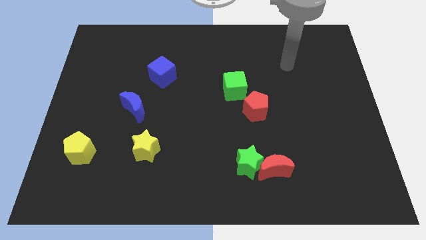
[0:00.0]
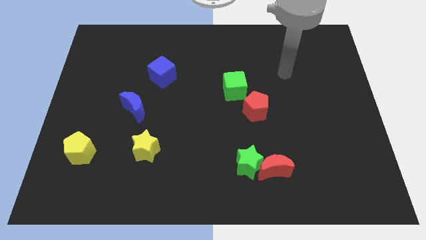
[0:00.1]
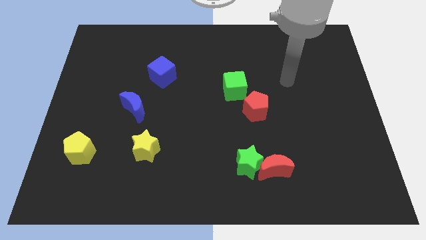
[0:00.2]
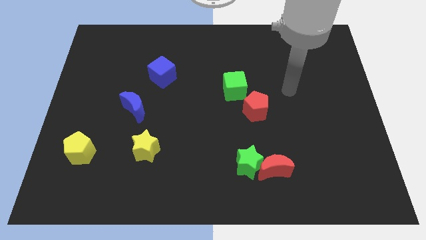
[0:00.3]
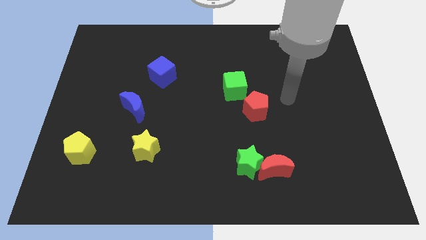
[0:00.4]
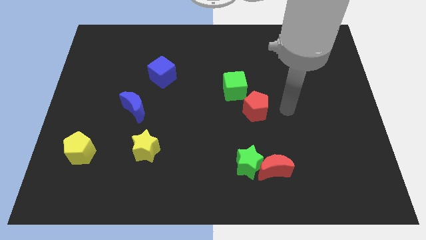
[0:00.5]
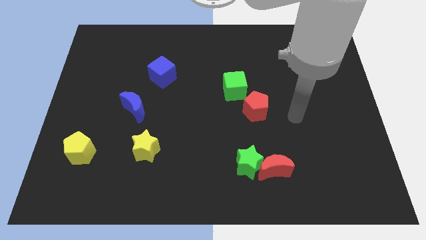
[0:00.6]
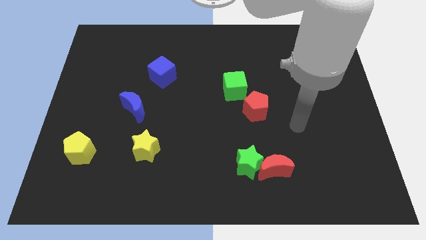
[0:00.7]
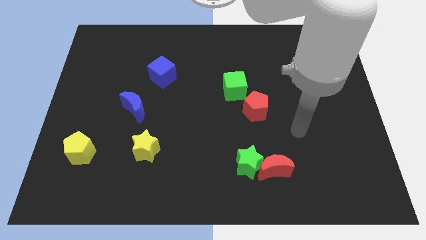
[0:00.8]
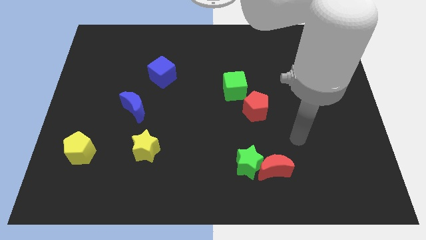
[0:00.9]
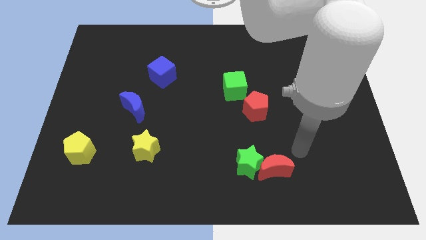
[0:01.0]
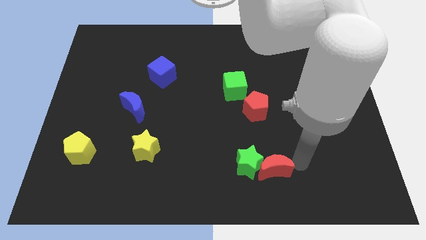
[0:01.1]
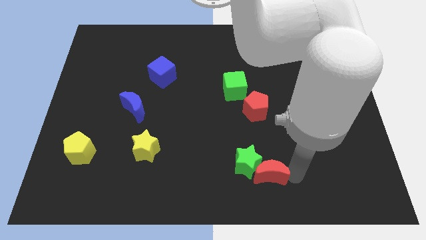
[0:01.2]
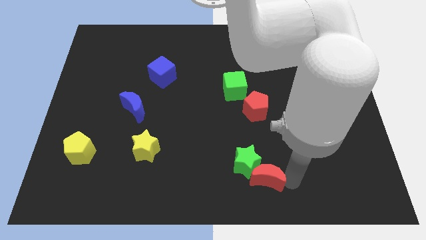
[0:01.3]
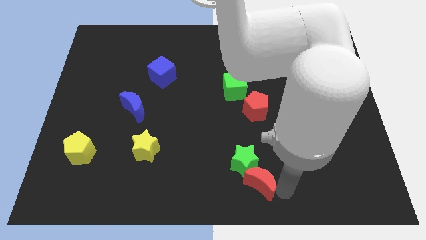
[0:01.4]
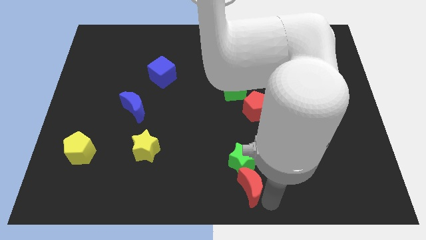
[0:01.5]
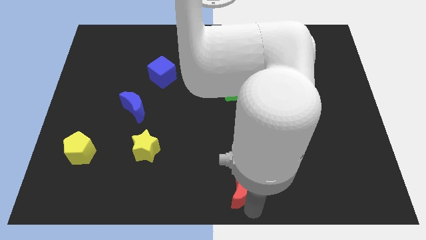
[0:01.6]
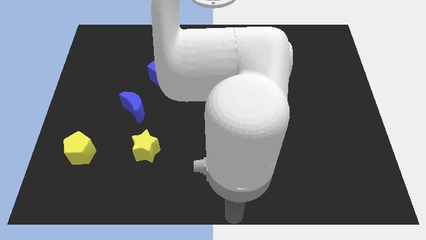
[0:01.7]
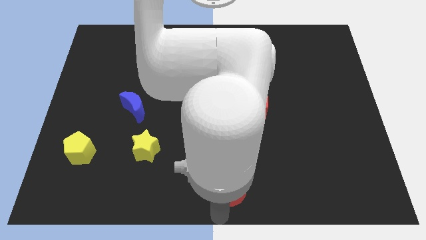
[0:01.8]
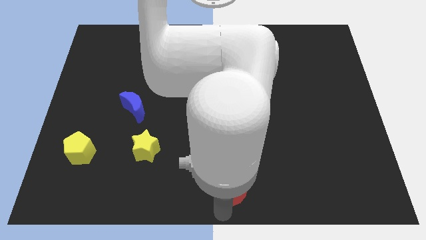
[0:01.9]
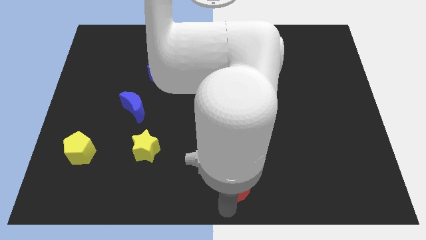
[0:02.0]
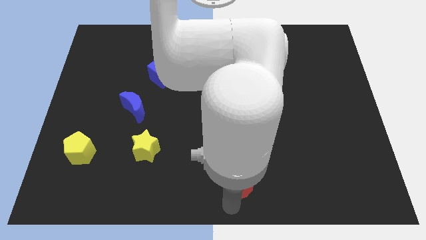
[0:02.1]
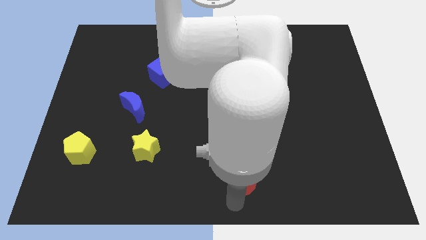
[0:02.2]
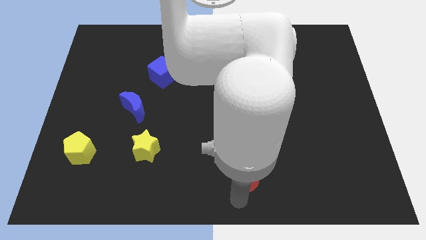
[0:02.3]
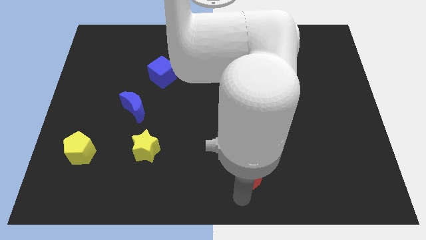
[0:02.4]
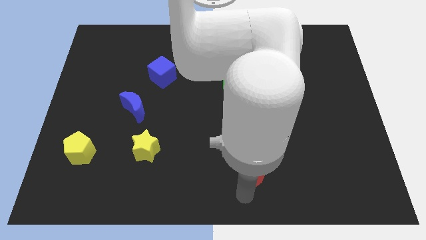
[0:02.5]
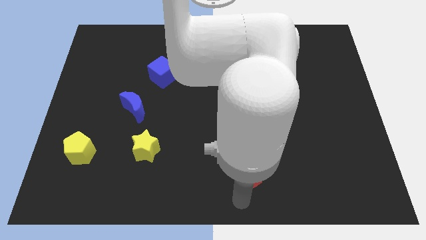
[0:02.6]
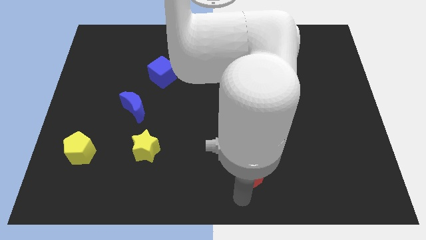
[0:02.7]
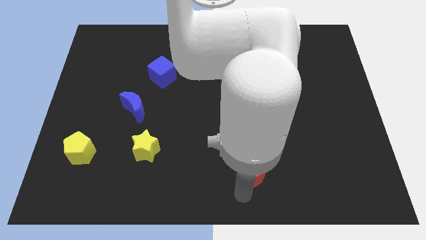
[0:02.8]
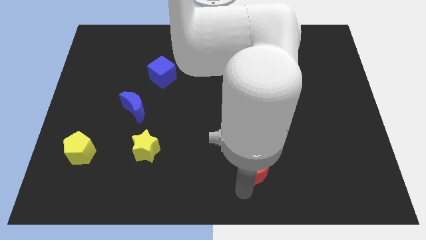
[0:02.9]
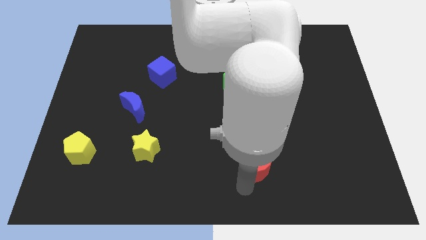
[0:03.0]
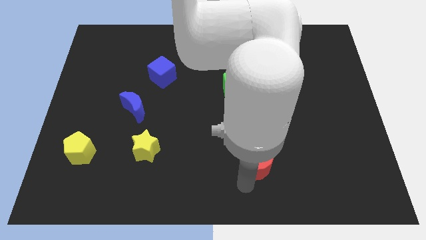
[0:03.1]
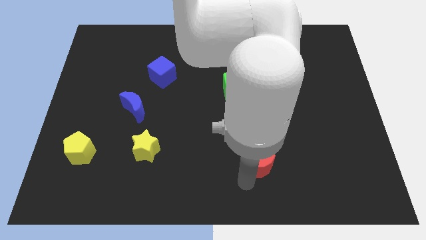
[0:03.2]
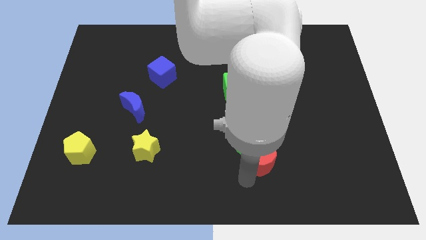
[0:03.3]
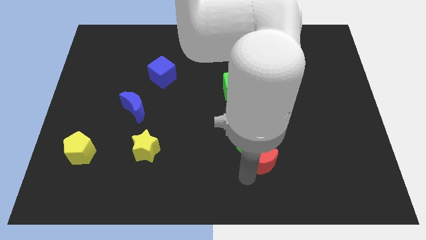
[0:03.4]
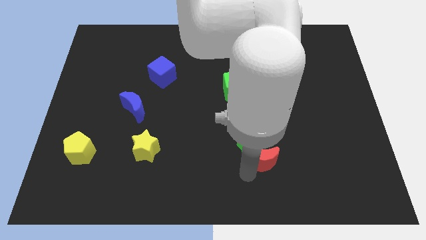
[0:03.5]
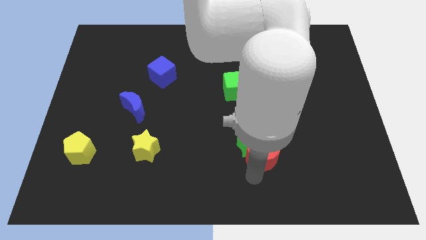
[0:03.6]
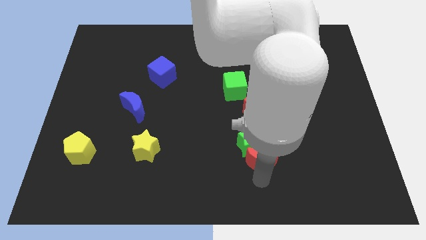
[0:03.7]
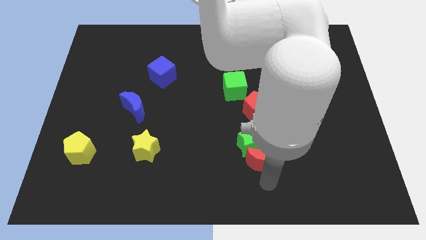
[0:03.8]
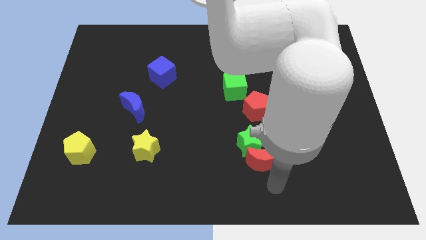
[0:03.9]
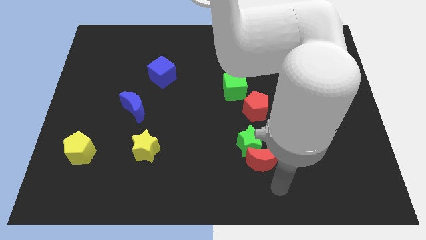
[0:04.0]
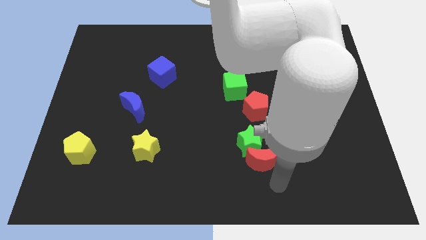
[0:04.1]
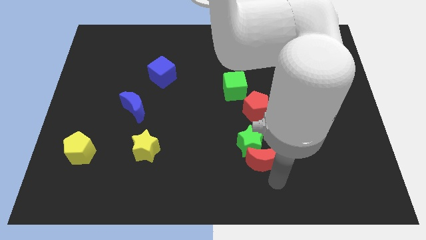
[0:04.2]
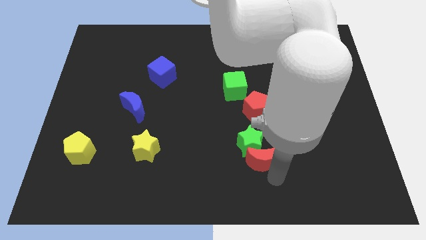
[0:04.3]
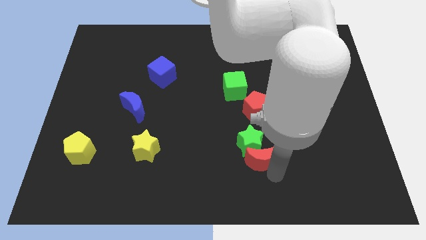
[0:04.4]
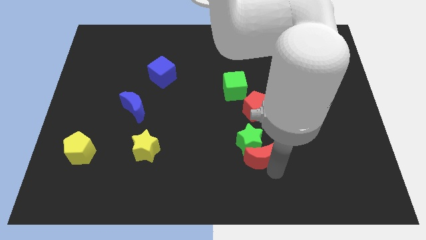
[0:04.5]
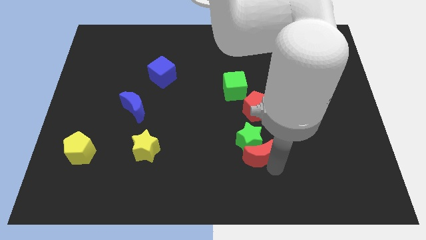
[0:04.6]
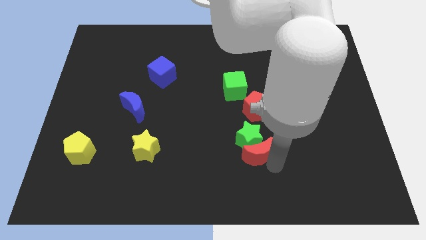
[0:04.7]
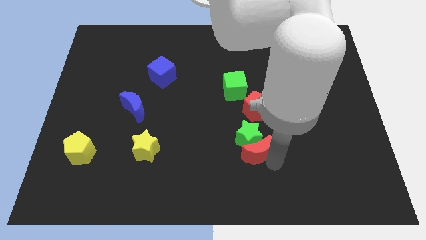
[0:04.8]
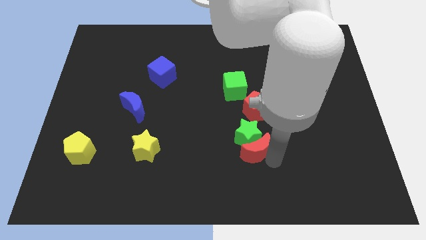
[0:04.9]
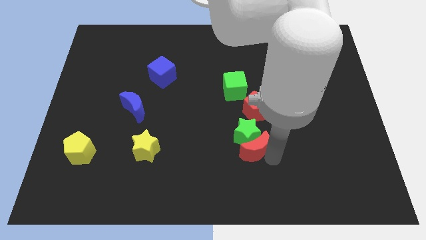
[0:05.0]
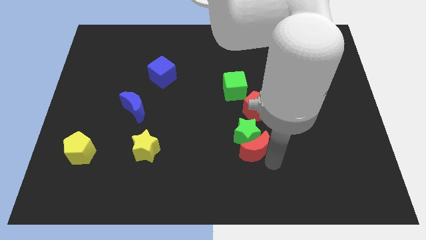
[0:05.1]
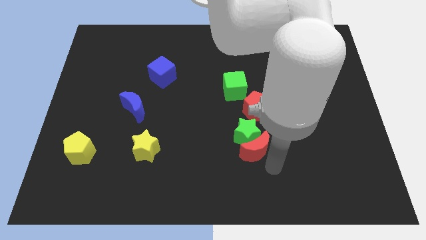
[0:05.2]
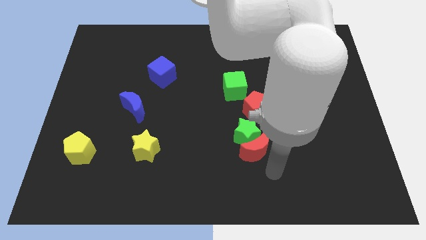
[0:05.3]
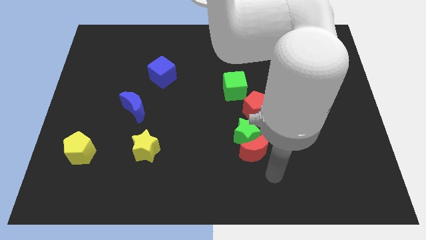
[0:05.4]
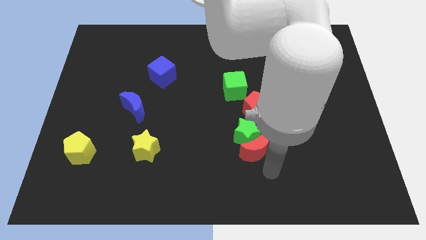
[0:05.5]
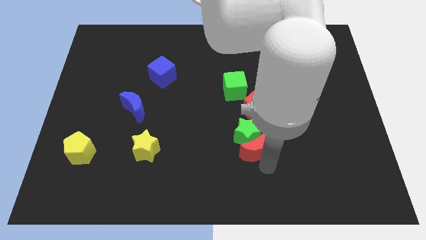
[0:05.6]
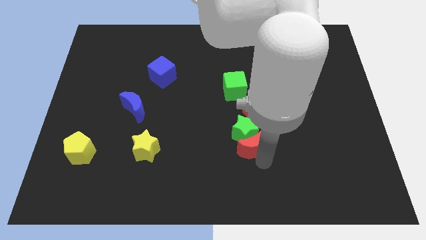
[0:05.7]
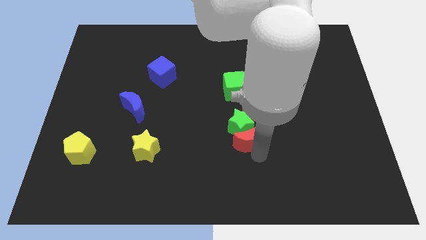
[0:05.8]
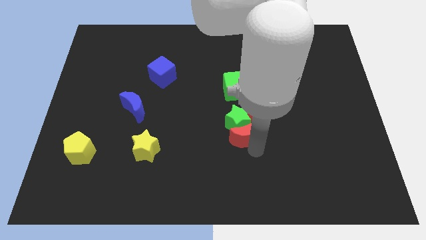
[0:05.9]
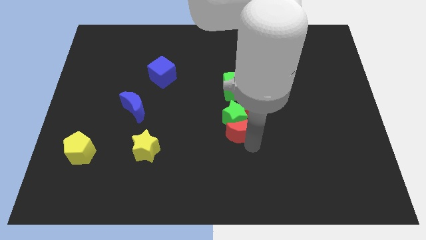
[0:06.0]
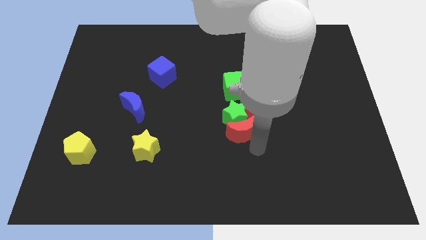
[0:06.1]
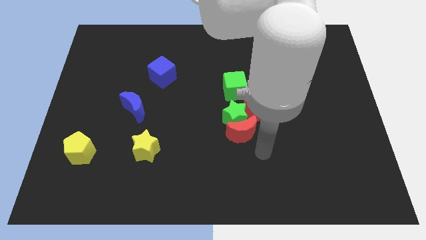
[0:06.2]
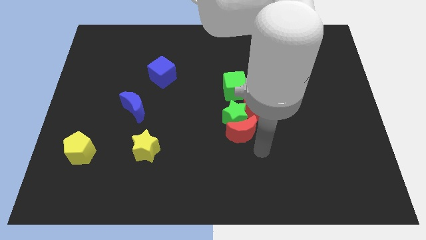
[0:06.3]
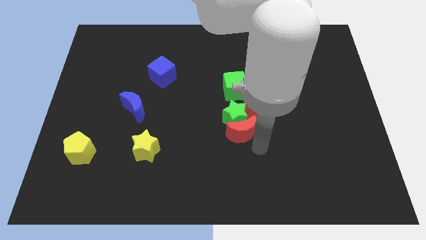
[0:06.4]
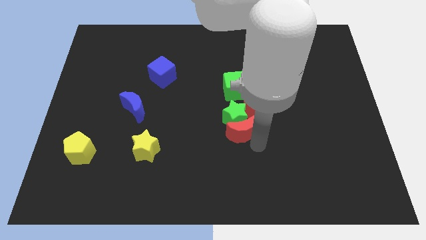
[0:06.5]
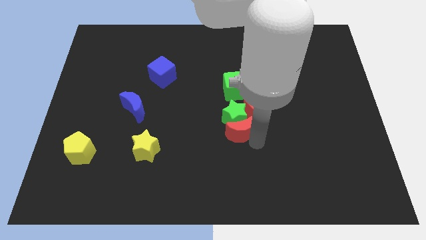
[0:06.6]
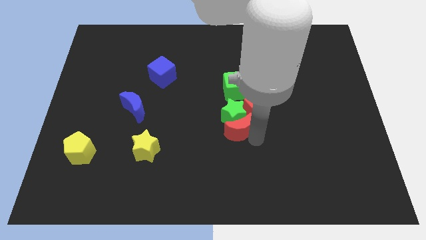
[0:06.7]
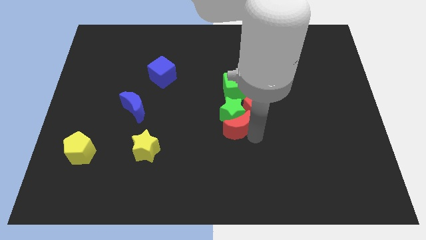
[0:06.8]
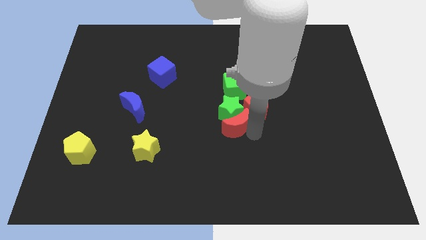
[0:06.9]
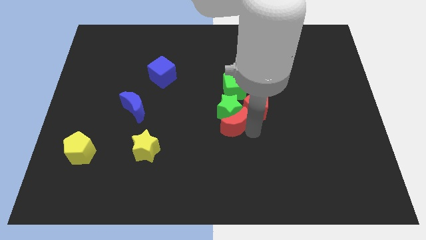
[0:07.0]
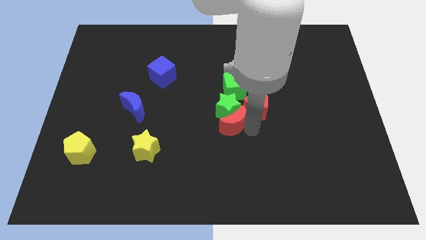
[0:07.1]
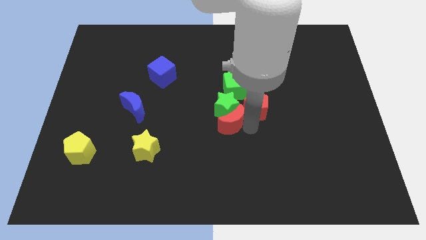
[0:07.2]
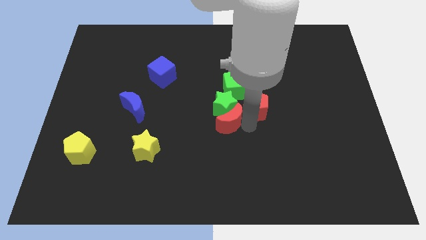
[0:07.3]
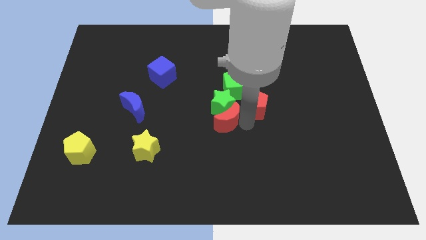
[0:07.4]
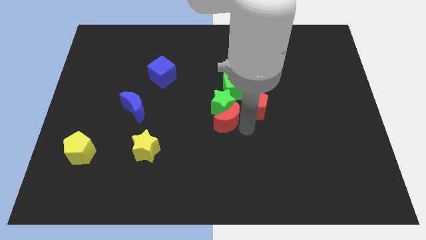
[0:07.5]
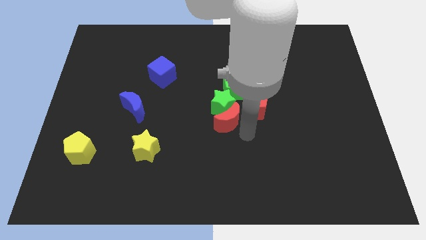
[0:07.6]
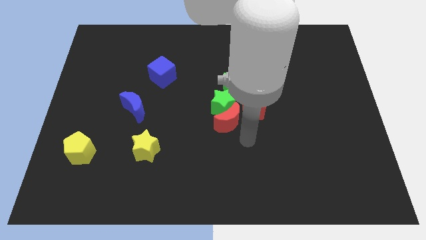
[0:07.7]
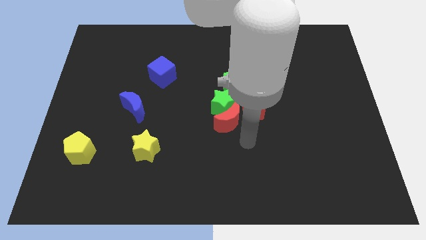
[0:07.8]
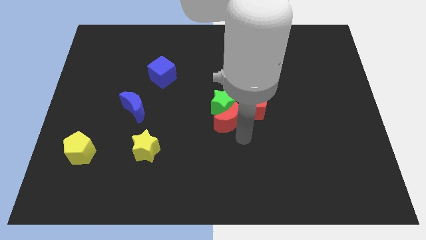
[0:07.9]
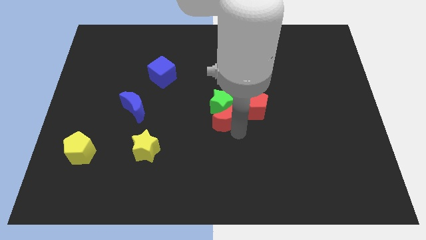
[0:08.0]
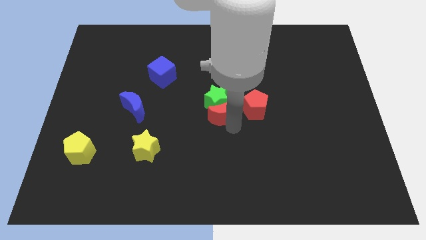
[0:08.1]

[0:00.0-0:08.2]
put the red moon to the bottom left of the green cube
